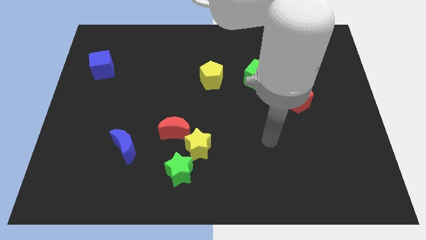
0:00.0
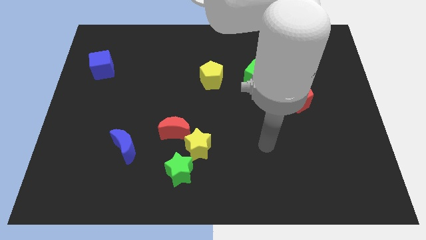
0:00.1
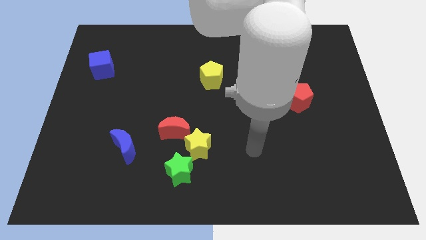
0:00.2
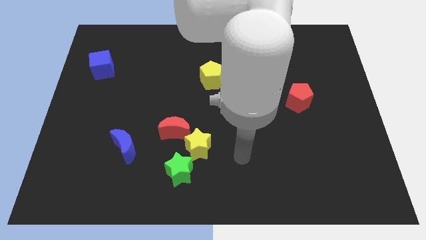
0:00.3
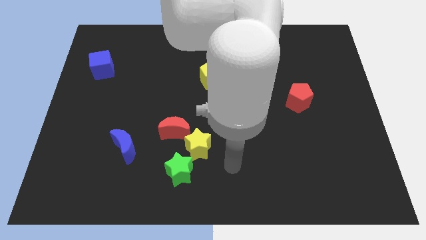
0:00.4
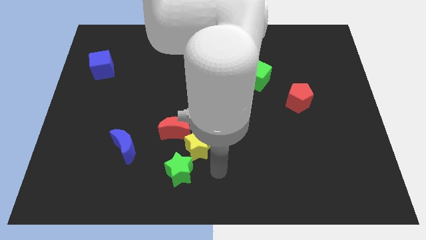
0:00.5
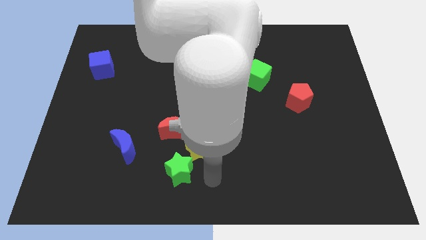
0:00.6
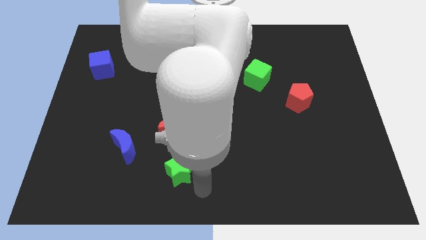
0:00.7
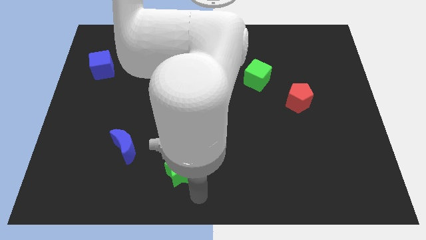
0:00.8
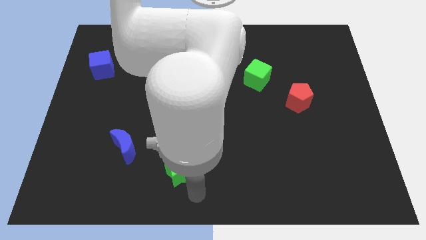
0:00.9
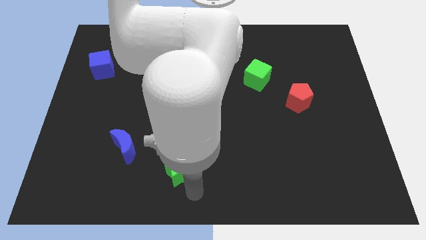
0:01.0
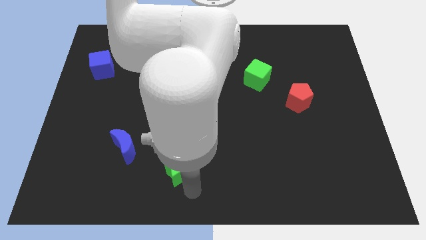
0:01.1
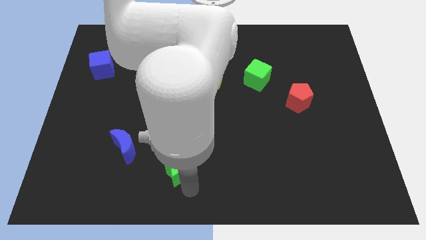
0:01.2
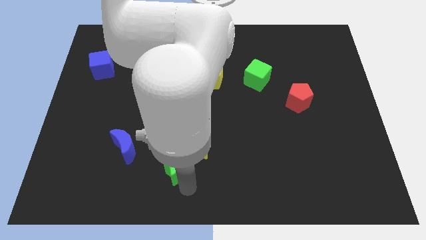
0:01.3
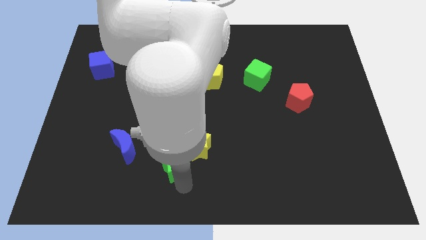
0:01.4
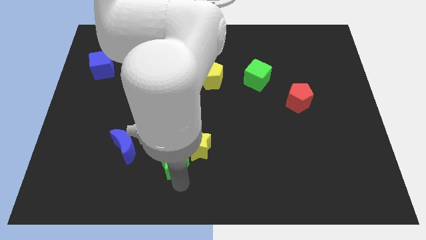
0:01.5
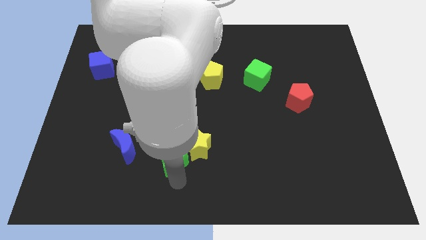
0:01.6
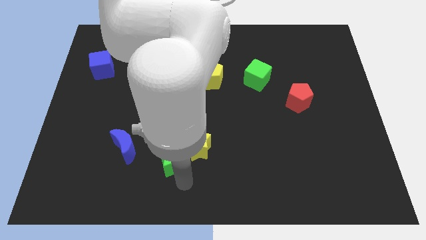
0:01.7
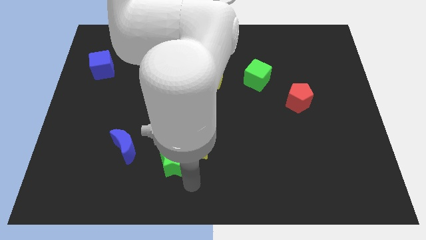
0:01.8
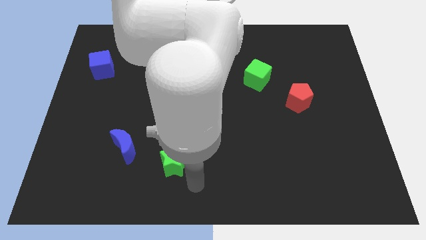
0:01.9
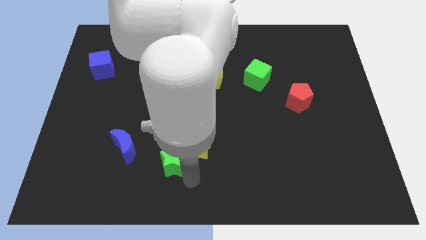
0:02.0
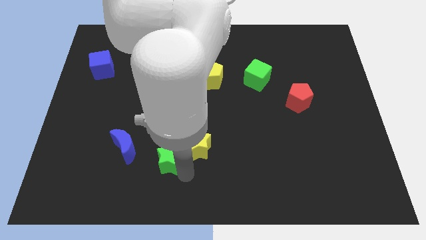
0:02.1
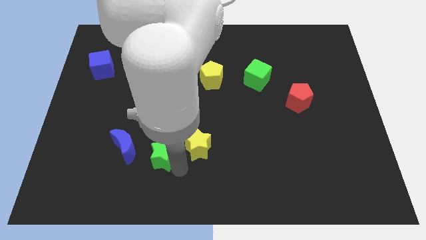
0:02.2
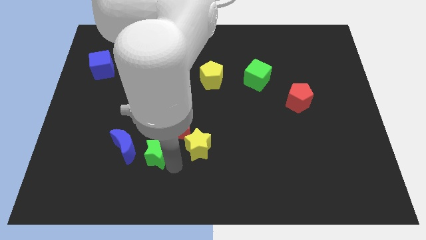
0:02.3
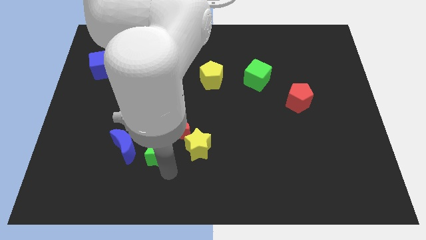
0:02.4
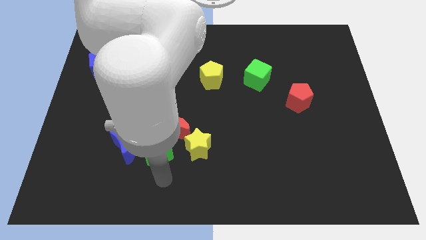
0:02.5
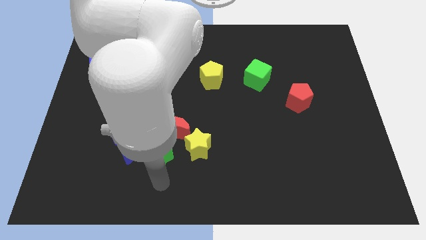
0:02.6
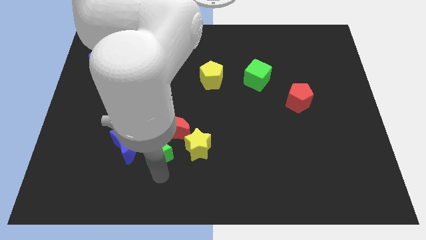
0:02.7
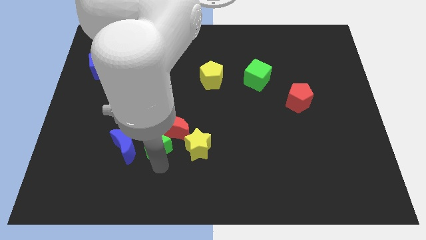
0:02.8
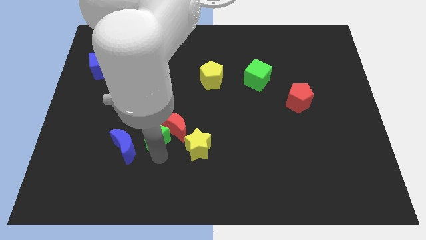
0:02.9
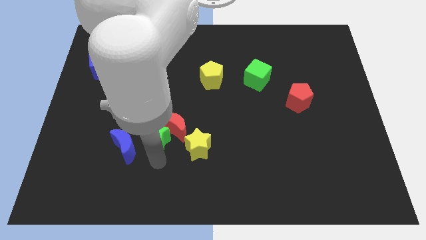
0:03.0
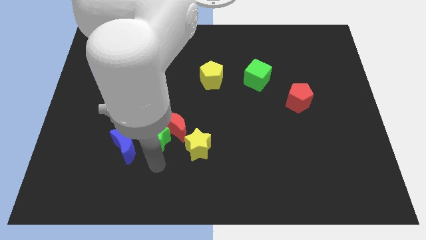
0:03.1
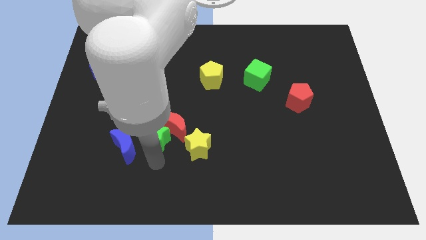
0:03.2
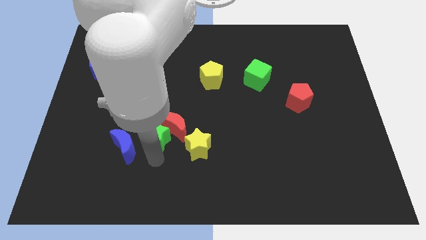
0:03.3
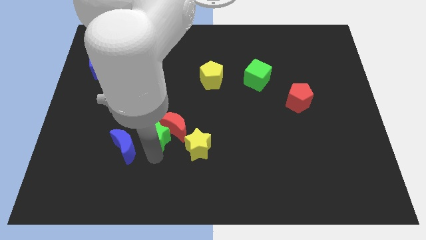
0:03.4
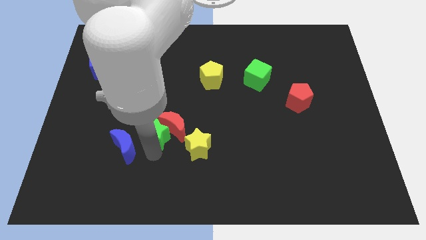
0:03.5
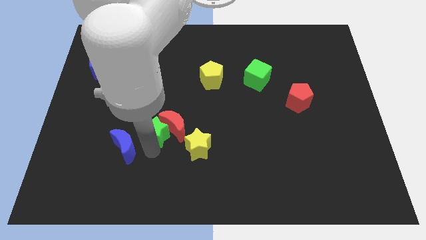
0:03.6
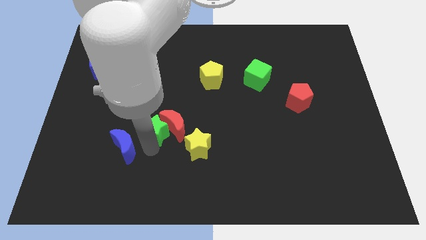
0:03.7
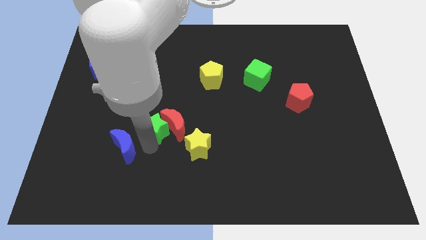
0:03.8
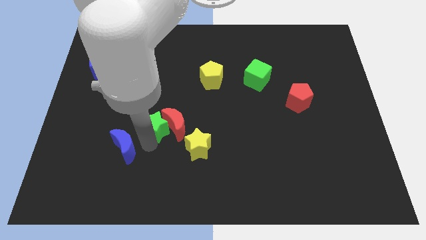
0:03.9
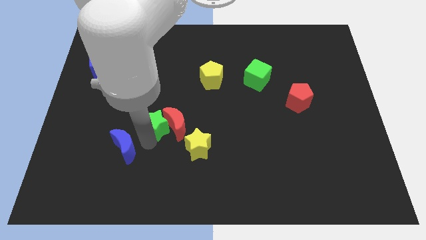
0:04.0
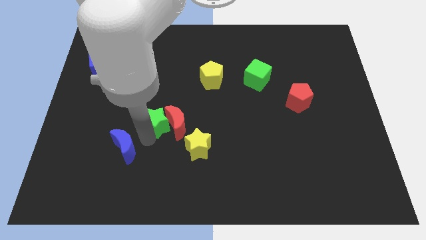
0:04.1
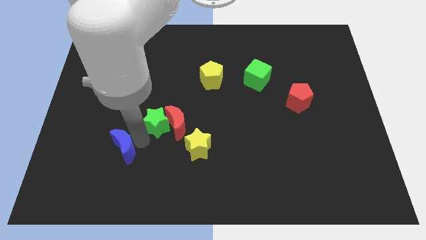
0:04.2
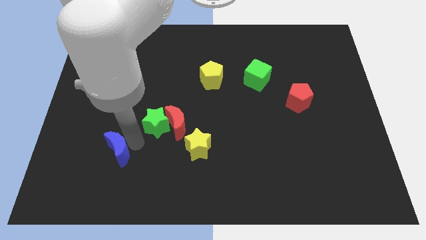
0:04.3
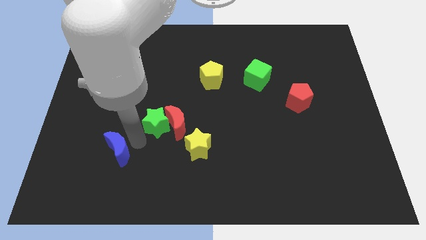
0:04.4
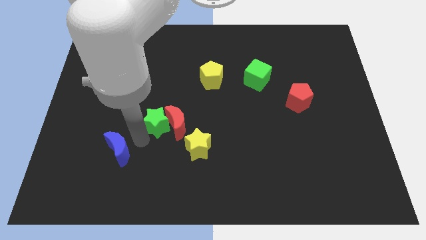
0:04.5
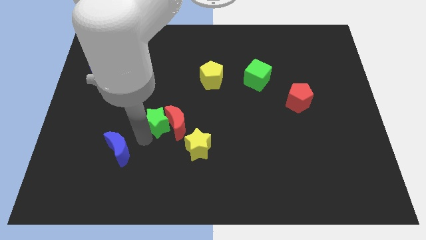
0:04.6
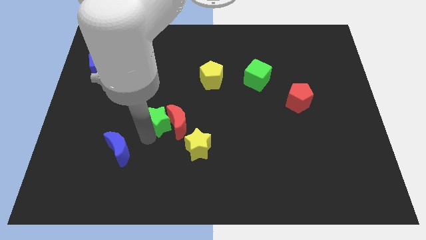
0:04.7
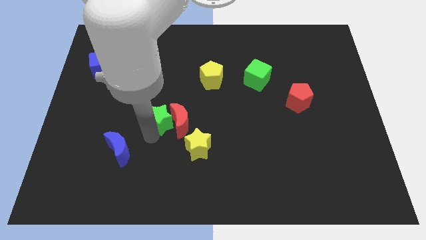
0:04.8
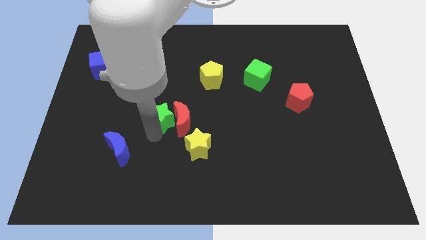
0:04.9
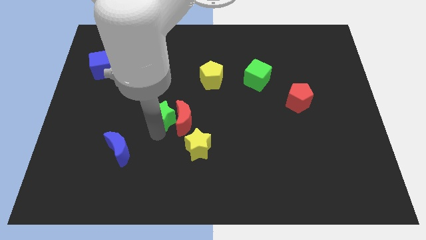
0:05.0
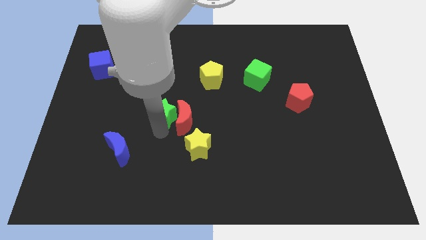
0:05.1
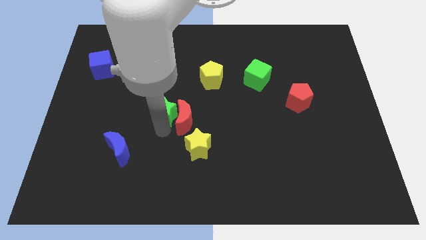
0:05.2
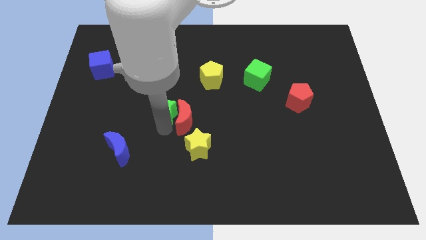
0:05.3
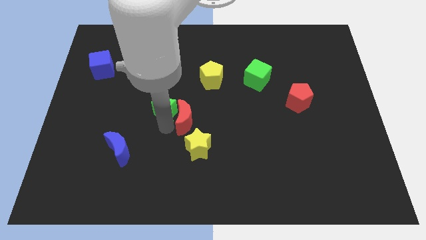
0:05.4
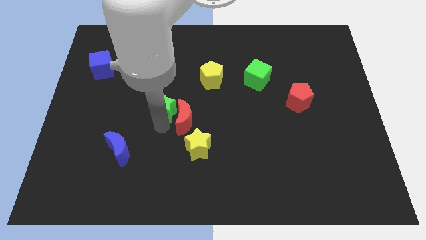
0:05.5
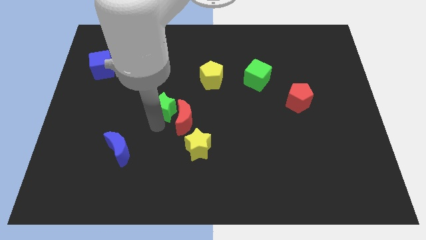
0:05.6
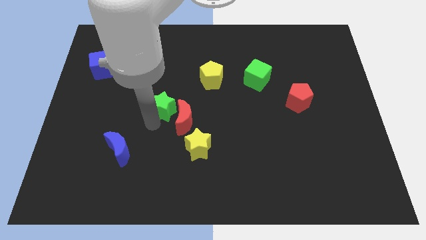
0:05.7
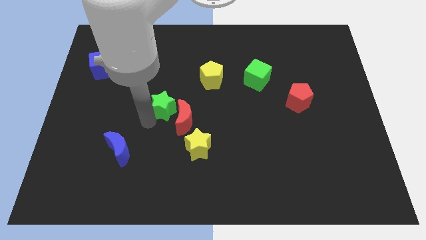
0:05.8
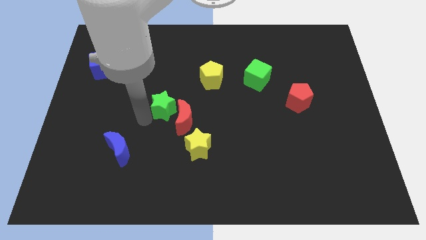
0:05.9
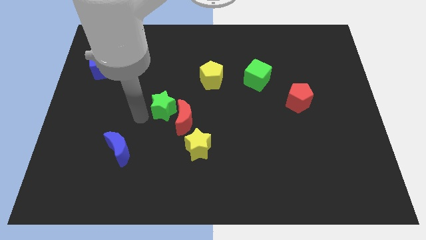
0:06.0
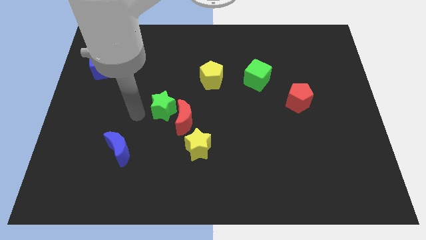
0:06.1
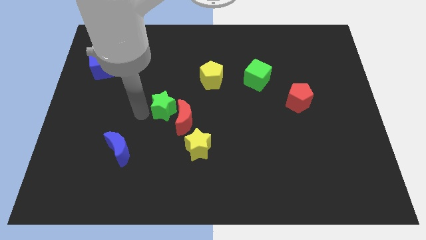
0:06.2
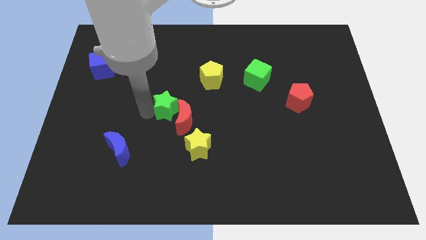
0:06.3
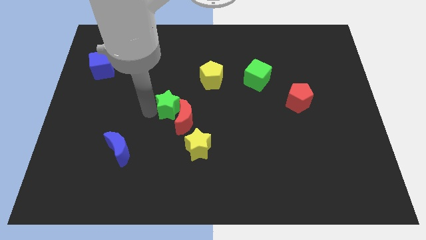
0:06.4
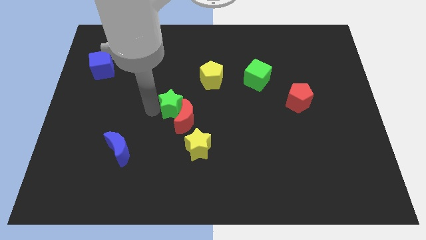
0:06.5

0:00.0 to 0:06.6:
move the green star to the bottom left of the yellow pentagon

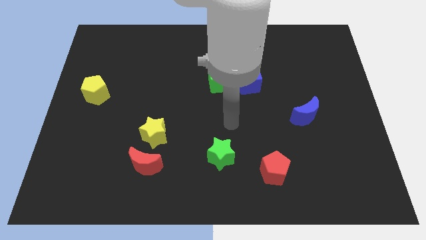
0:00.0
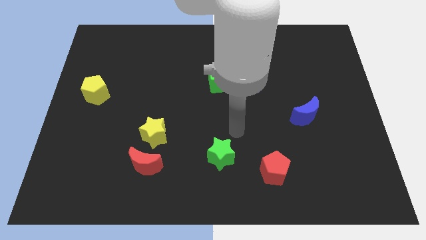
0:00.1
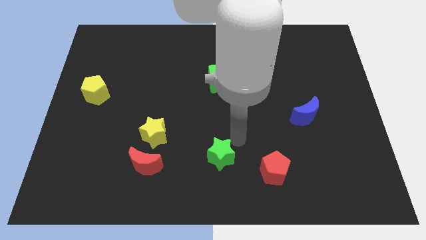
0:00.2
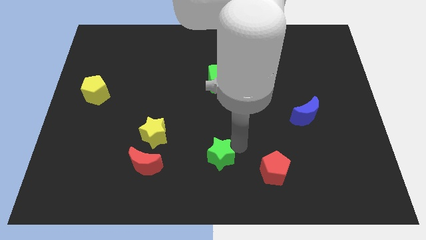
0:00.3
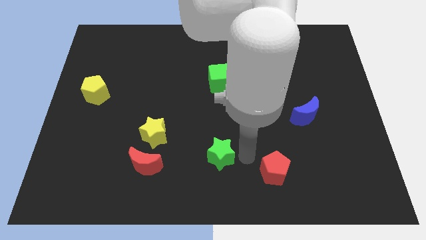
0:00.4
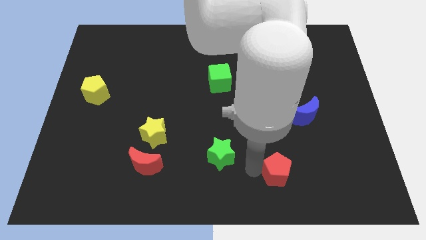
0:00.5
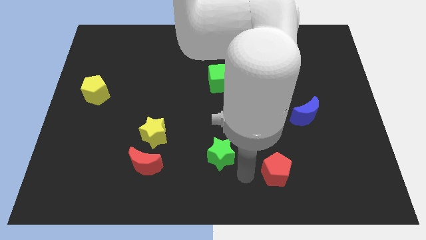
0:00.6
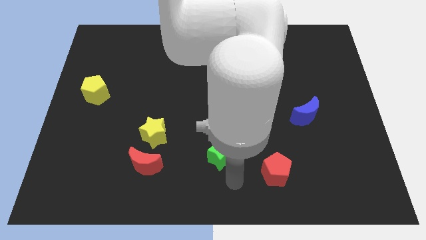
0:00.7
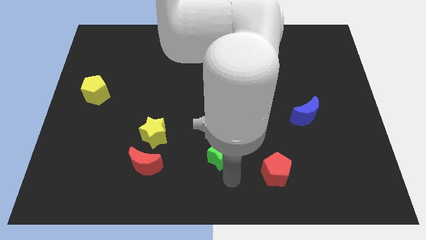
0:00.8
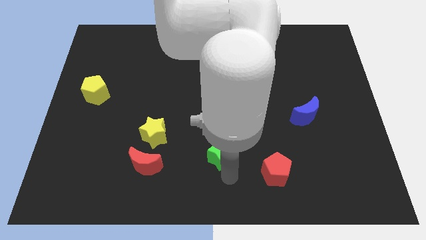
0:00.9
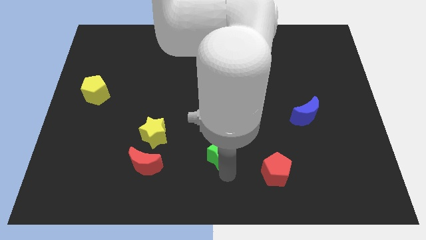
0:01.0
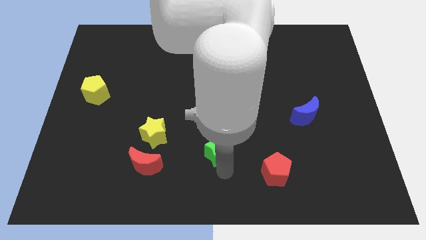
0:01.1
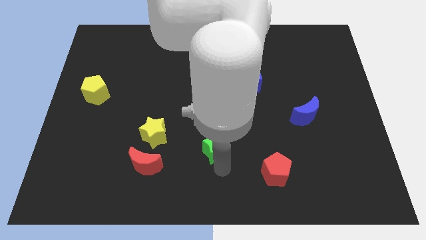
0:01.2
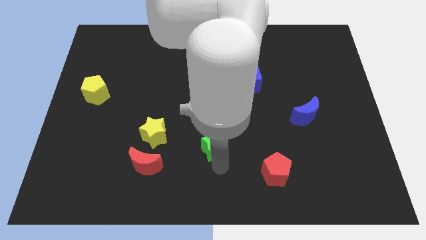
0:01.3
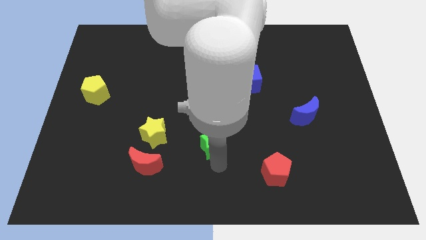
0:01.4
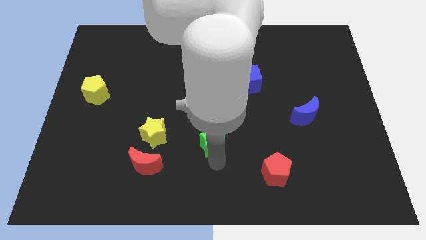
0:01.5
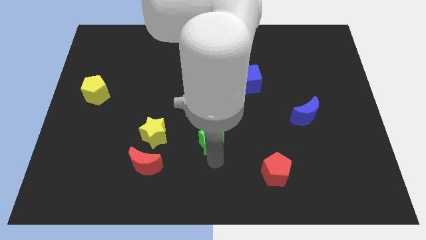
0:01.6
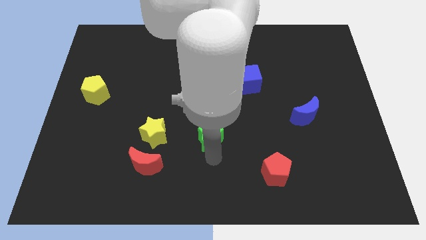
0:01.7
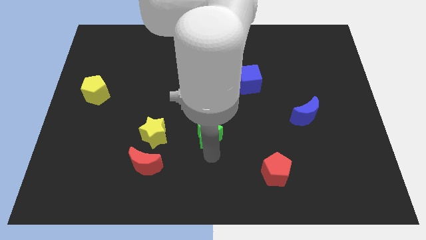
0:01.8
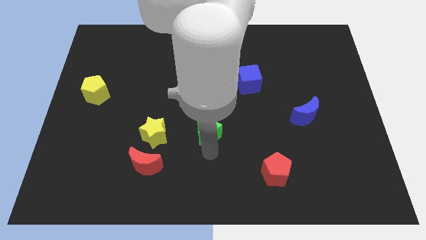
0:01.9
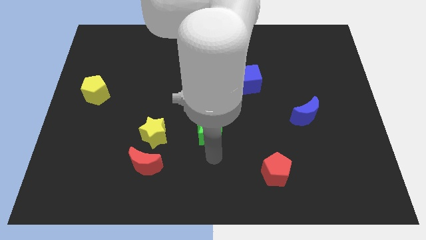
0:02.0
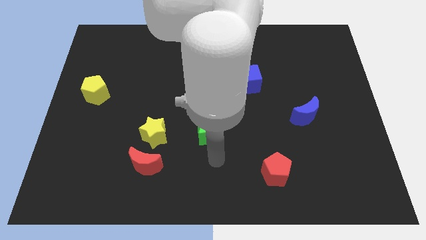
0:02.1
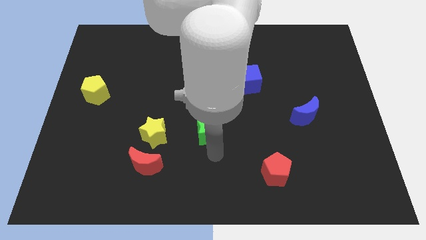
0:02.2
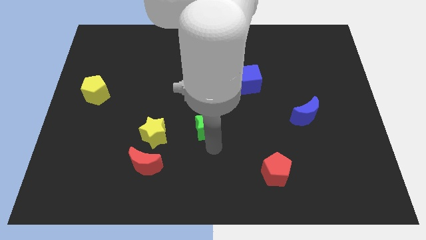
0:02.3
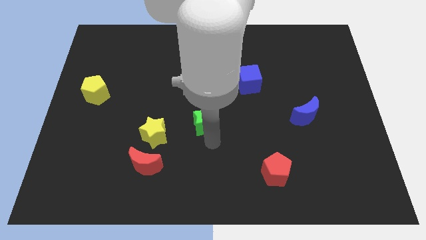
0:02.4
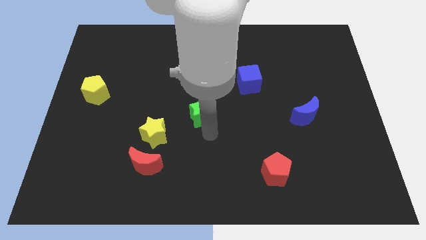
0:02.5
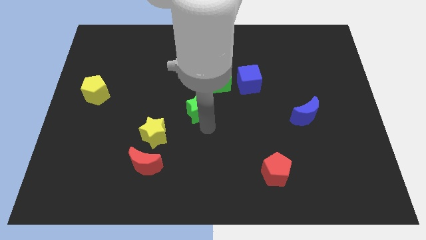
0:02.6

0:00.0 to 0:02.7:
slide the green star to the bottom left side of the green cube
